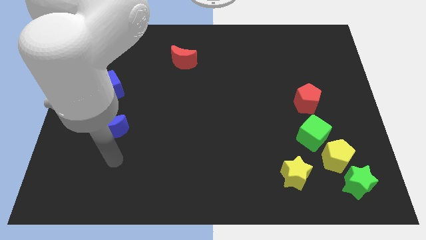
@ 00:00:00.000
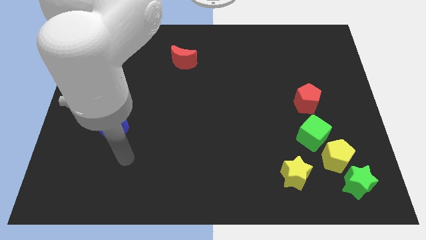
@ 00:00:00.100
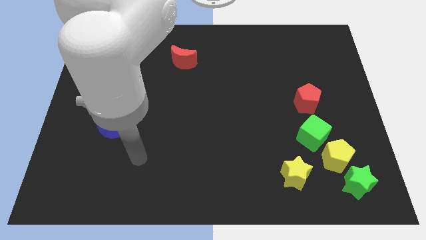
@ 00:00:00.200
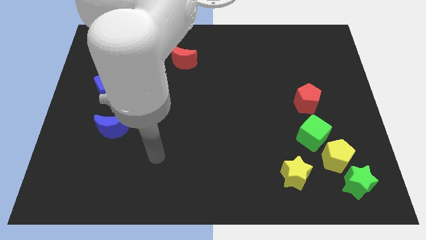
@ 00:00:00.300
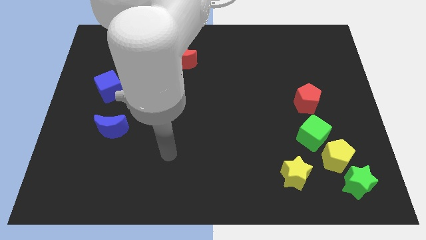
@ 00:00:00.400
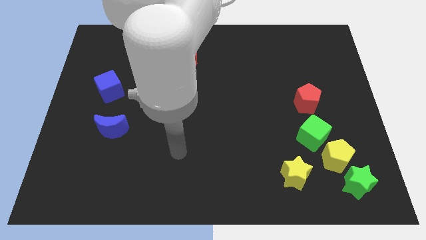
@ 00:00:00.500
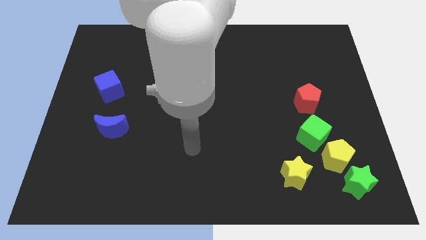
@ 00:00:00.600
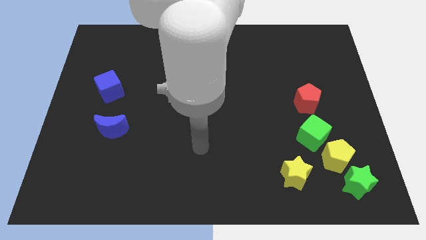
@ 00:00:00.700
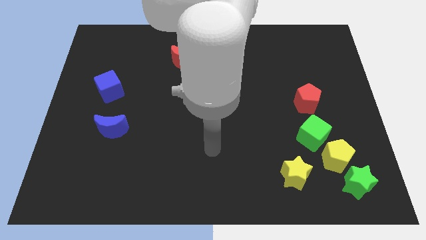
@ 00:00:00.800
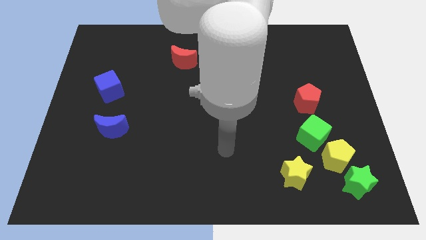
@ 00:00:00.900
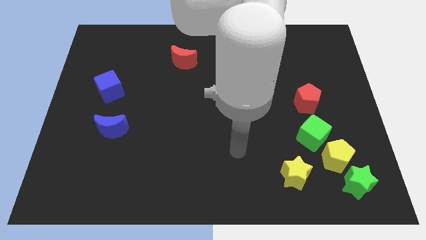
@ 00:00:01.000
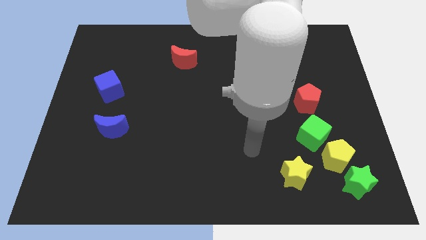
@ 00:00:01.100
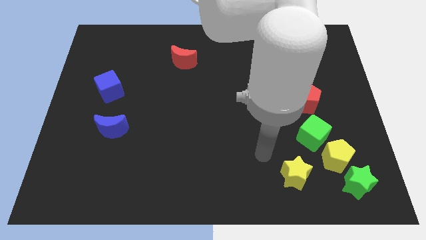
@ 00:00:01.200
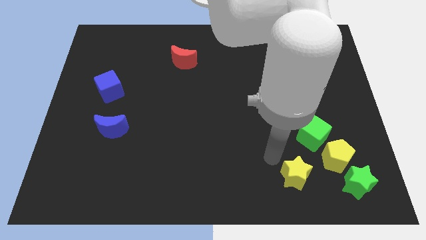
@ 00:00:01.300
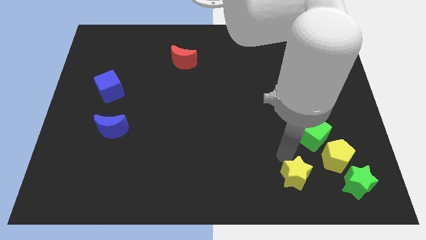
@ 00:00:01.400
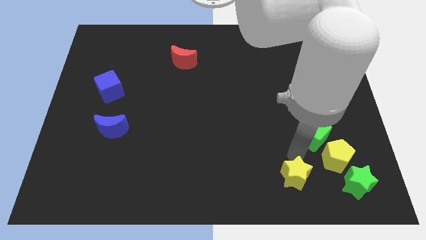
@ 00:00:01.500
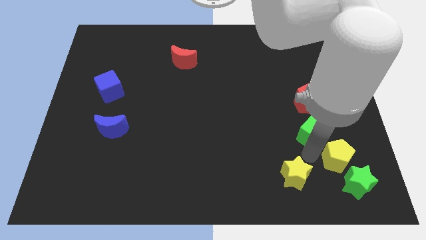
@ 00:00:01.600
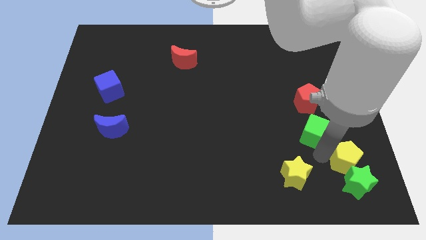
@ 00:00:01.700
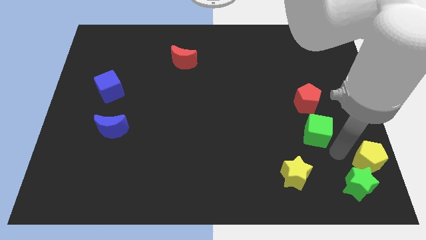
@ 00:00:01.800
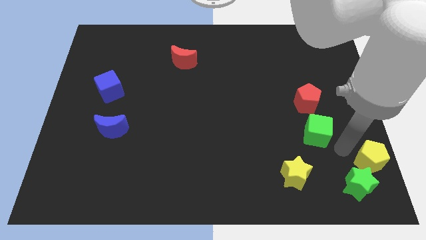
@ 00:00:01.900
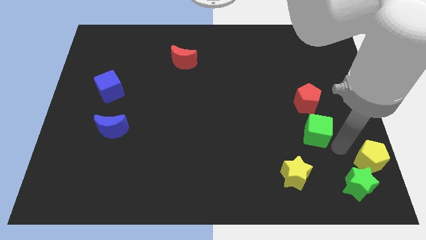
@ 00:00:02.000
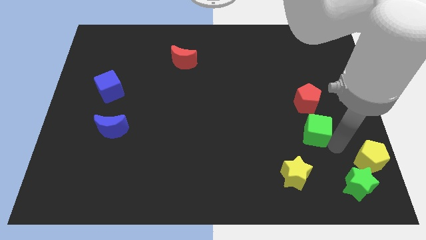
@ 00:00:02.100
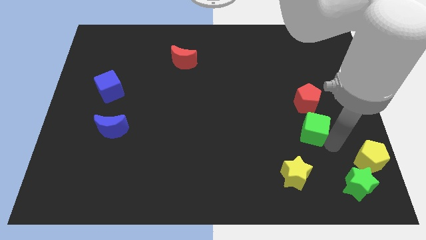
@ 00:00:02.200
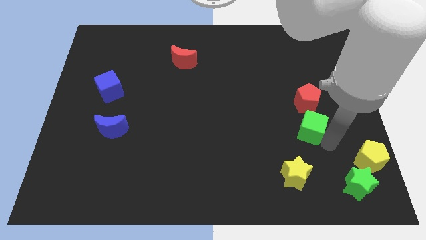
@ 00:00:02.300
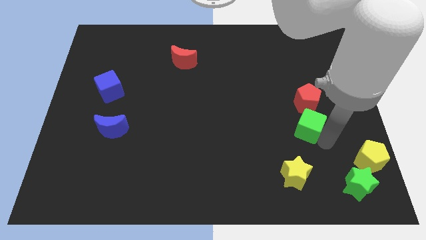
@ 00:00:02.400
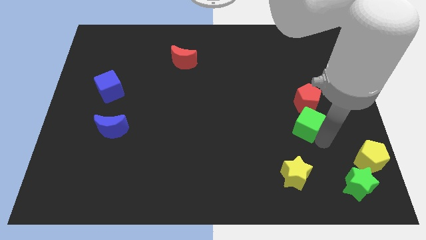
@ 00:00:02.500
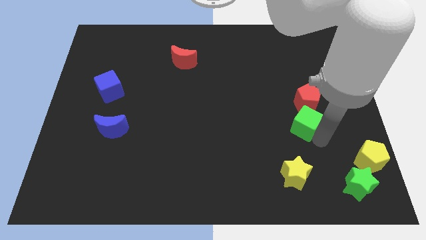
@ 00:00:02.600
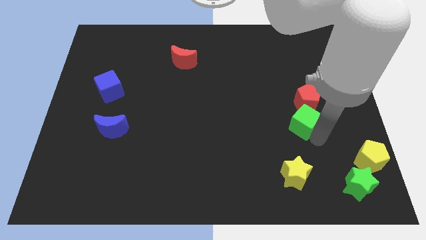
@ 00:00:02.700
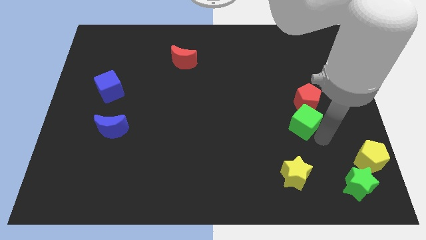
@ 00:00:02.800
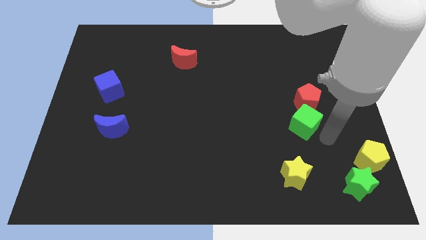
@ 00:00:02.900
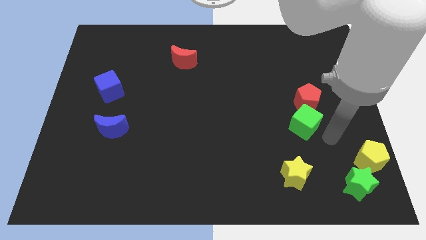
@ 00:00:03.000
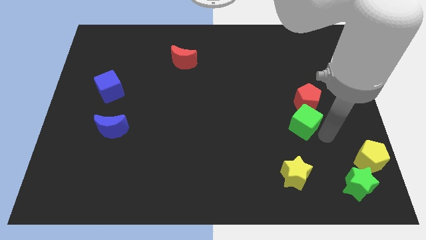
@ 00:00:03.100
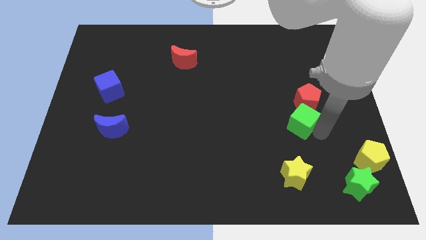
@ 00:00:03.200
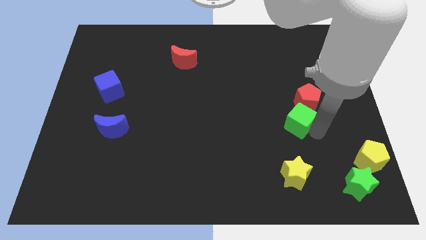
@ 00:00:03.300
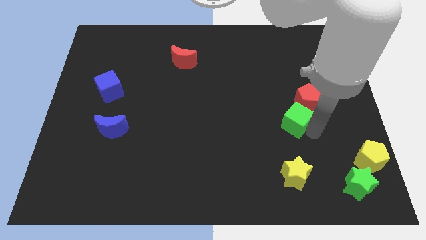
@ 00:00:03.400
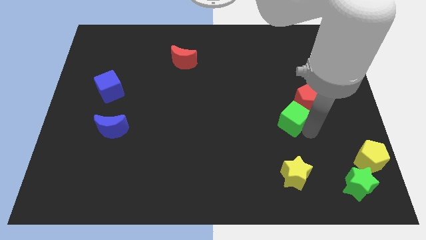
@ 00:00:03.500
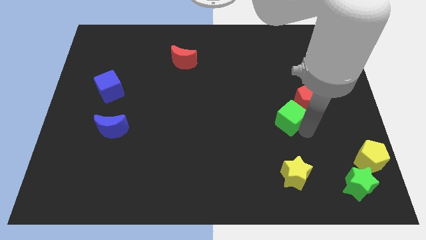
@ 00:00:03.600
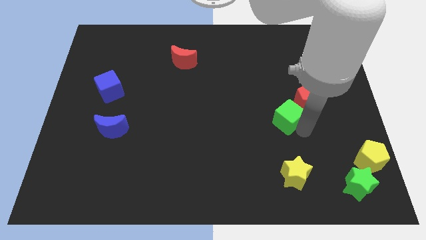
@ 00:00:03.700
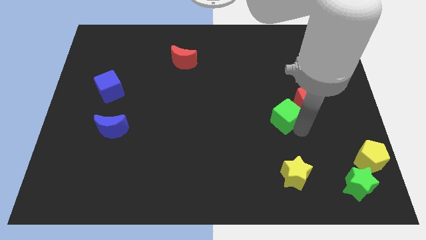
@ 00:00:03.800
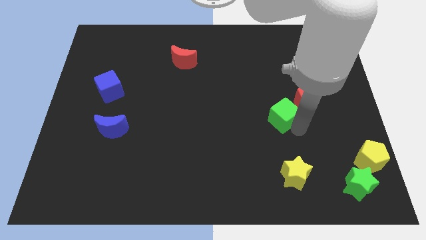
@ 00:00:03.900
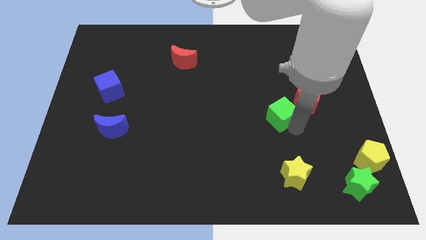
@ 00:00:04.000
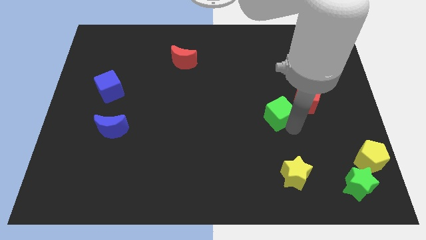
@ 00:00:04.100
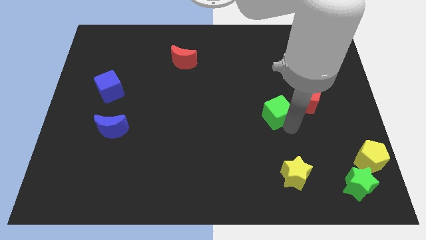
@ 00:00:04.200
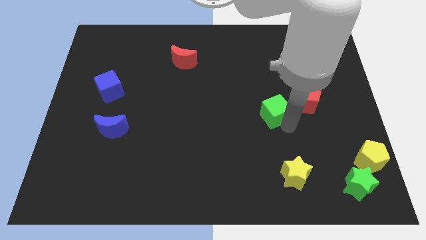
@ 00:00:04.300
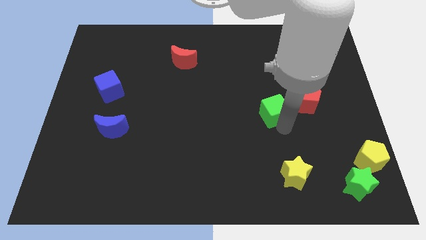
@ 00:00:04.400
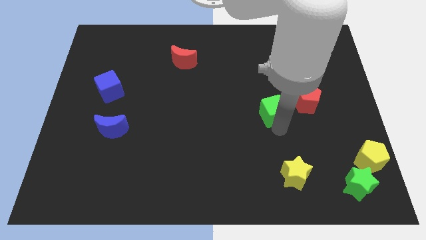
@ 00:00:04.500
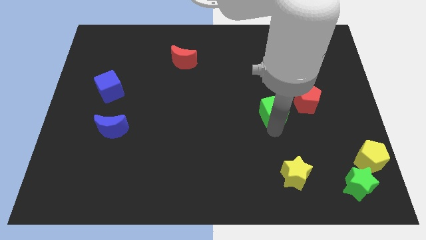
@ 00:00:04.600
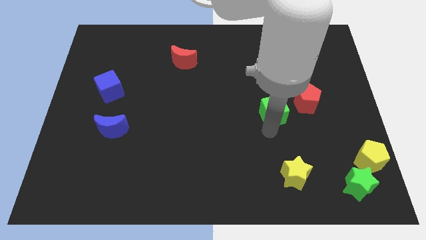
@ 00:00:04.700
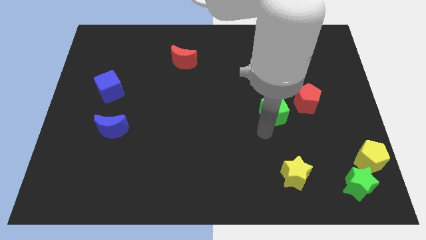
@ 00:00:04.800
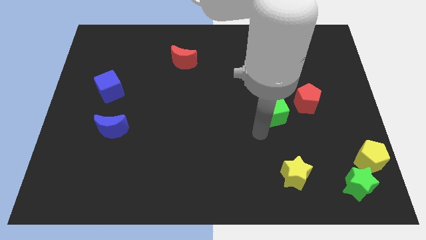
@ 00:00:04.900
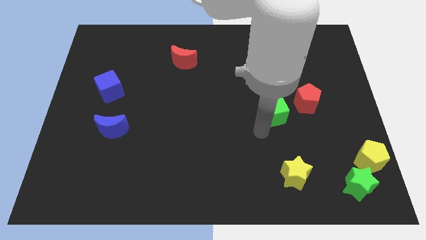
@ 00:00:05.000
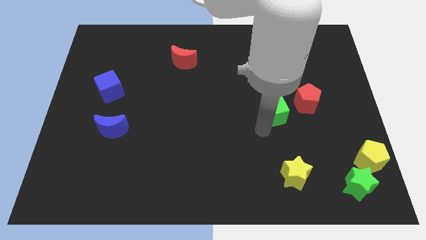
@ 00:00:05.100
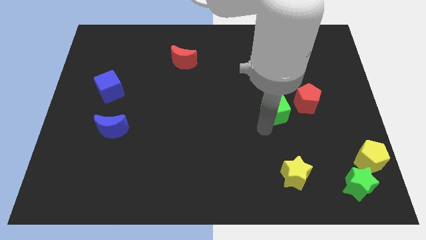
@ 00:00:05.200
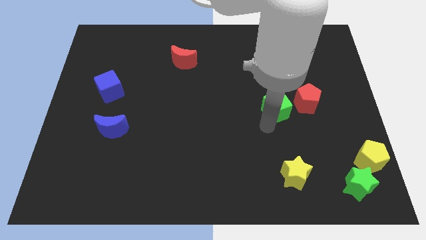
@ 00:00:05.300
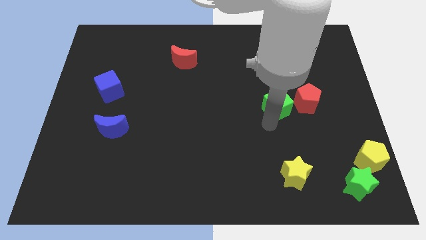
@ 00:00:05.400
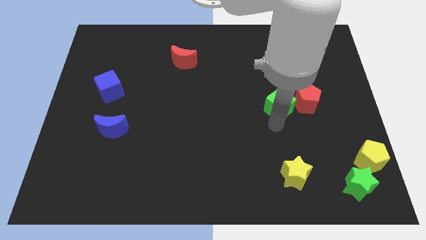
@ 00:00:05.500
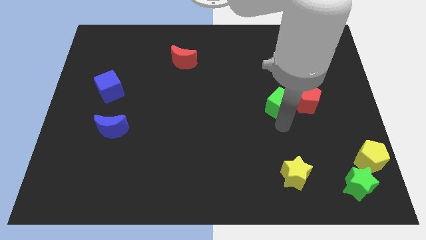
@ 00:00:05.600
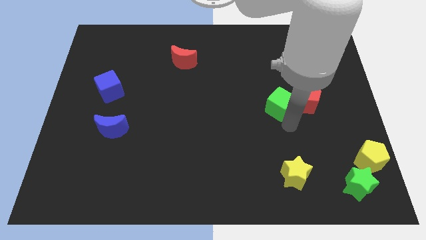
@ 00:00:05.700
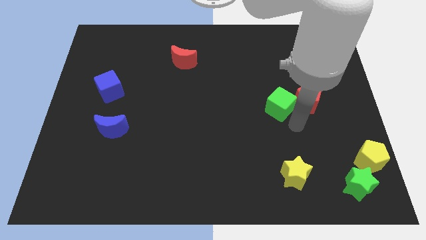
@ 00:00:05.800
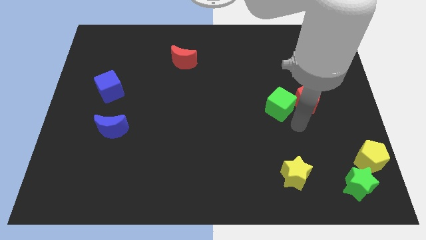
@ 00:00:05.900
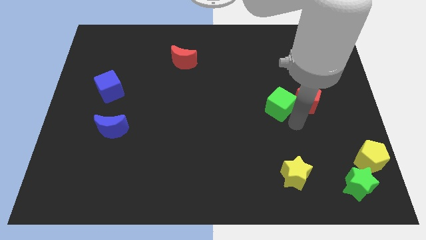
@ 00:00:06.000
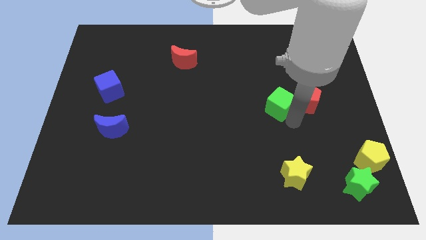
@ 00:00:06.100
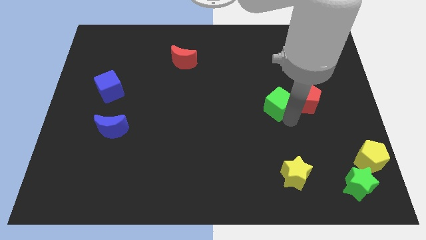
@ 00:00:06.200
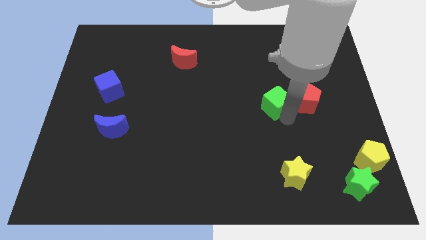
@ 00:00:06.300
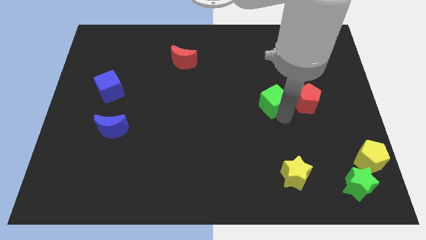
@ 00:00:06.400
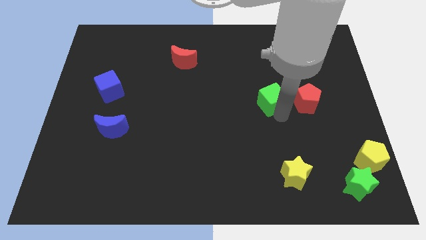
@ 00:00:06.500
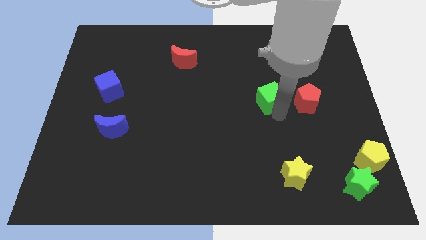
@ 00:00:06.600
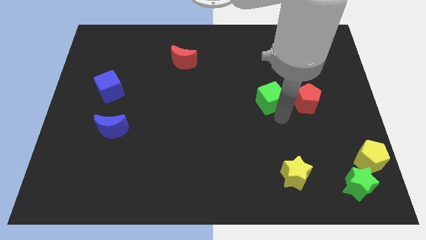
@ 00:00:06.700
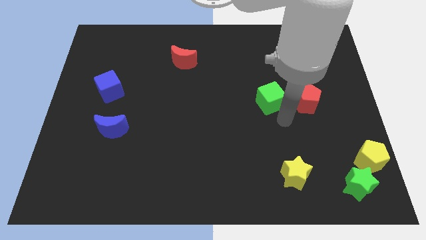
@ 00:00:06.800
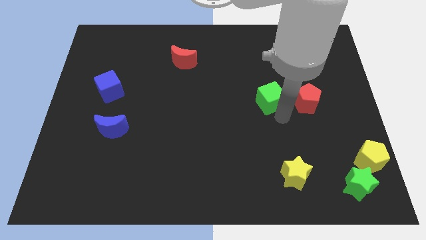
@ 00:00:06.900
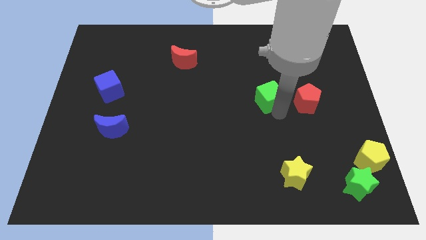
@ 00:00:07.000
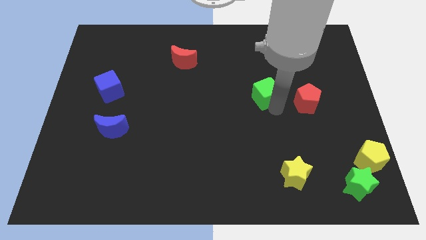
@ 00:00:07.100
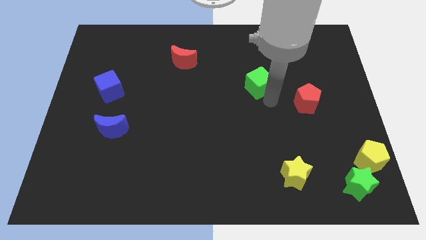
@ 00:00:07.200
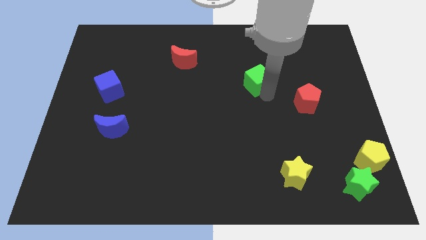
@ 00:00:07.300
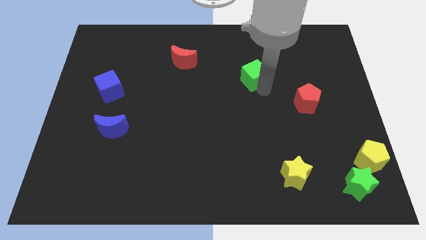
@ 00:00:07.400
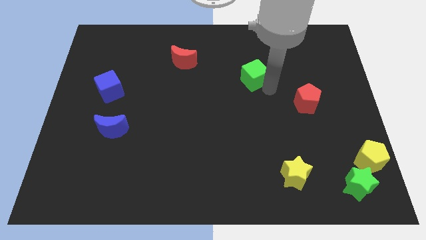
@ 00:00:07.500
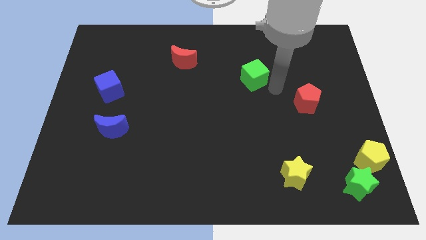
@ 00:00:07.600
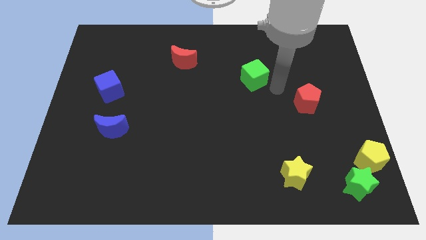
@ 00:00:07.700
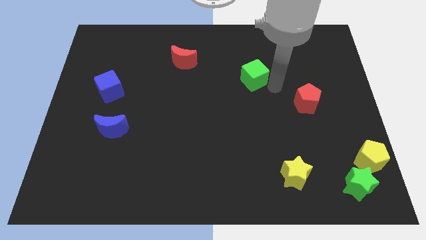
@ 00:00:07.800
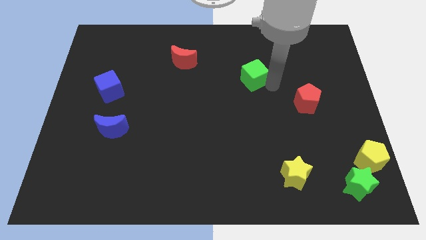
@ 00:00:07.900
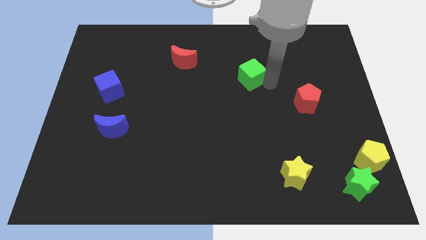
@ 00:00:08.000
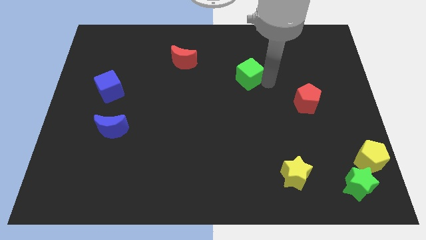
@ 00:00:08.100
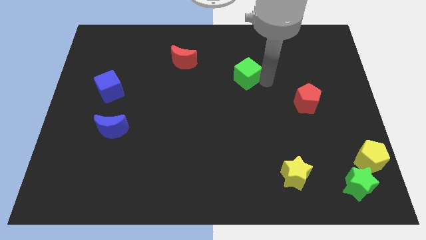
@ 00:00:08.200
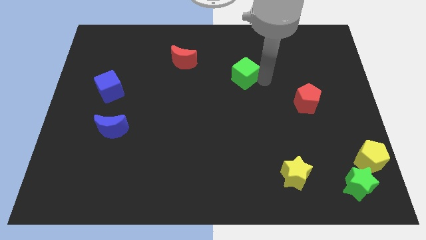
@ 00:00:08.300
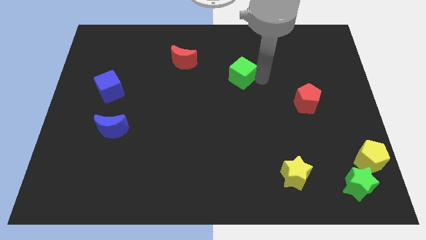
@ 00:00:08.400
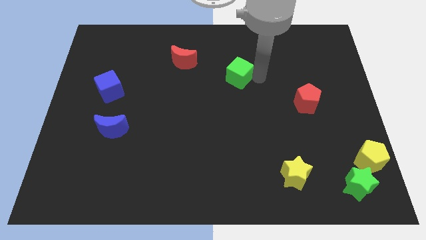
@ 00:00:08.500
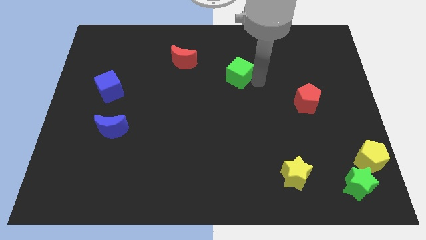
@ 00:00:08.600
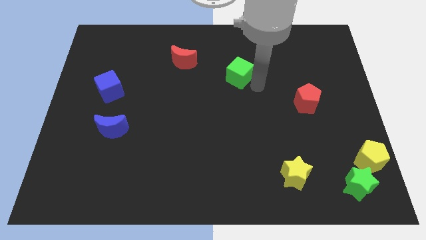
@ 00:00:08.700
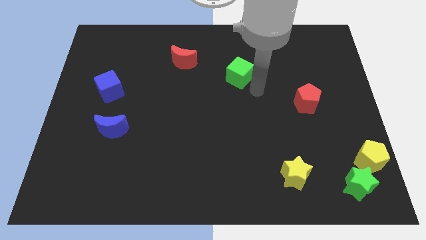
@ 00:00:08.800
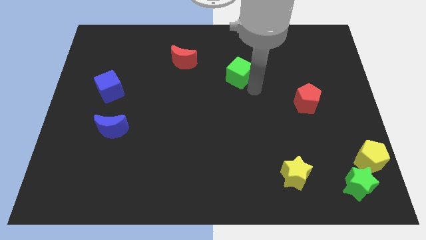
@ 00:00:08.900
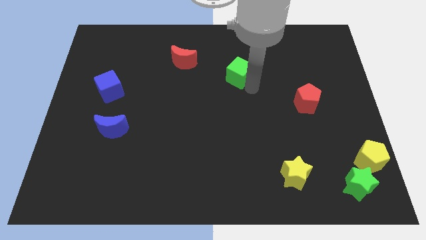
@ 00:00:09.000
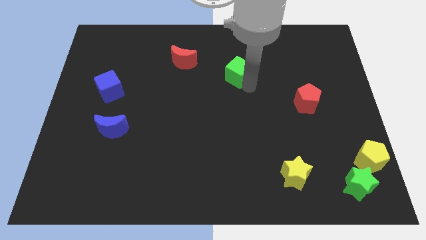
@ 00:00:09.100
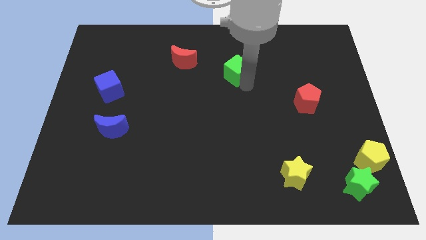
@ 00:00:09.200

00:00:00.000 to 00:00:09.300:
move the green cube just right of the red moon
